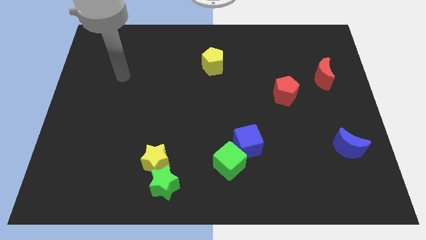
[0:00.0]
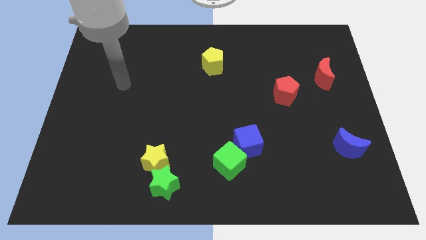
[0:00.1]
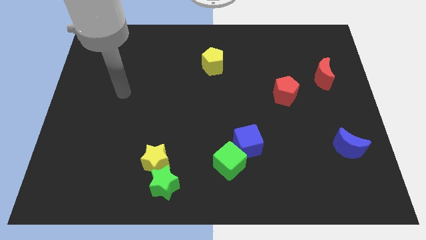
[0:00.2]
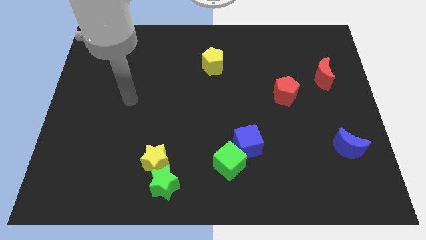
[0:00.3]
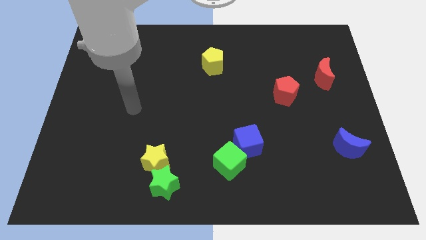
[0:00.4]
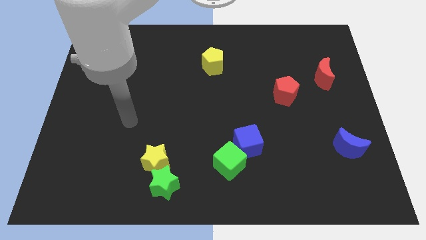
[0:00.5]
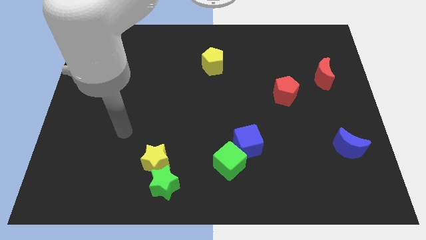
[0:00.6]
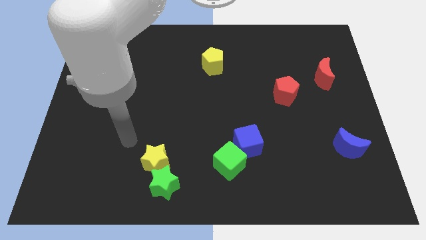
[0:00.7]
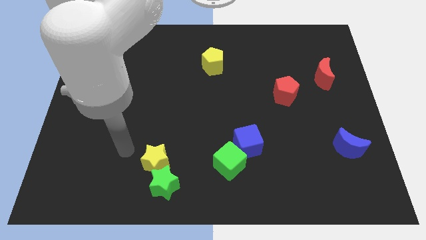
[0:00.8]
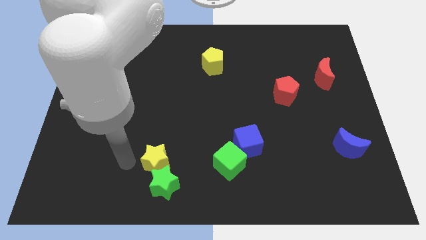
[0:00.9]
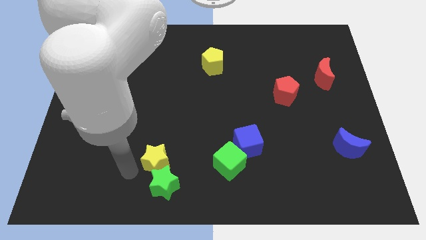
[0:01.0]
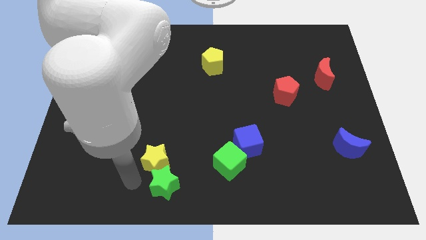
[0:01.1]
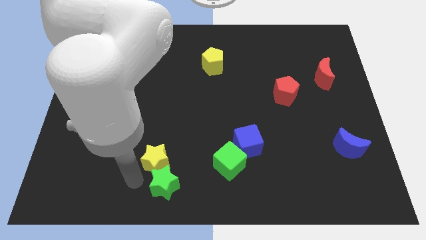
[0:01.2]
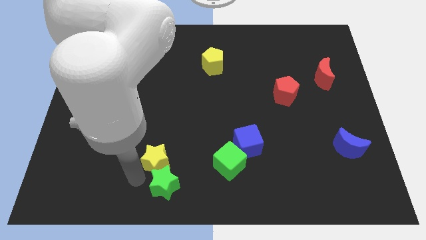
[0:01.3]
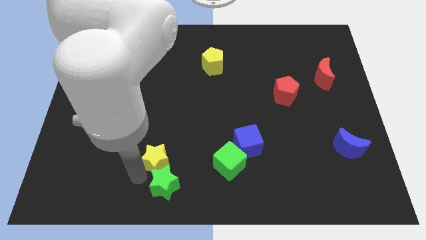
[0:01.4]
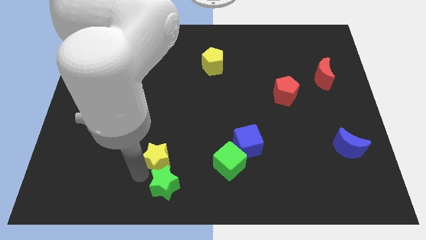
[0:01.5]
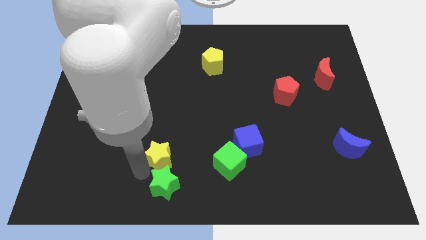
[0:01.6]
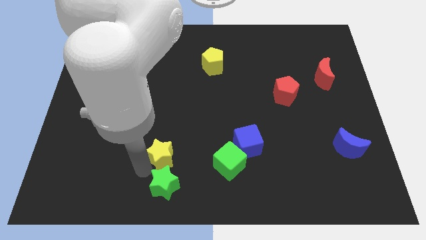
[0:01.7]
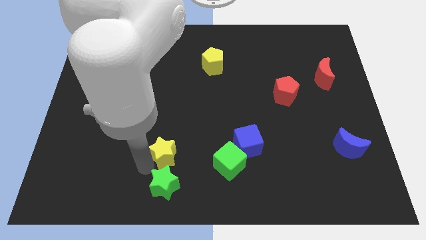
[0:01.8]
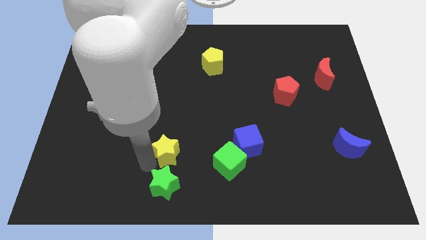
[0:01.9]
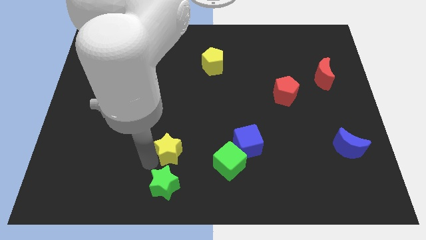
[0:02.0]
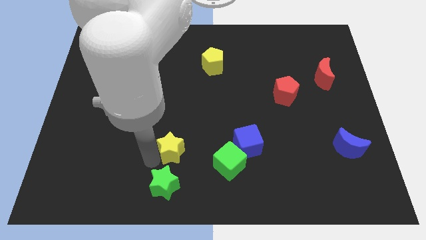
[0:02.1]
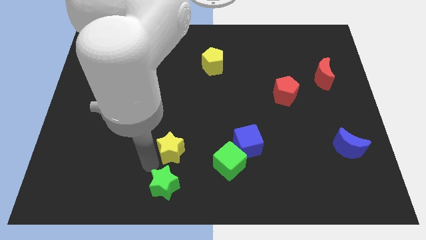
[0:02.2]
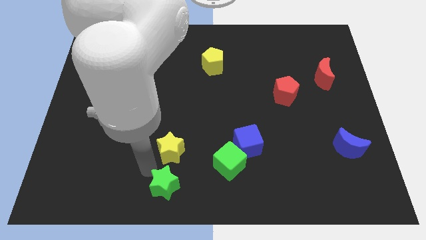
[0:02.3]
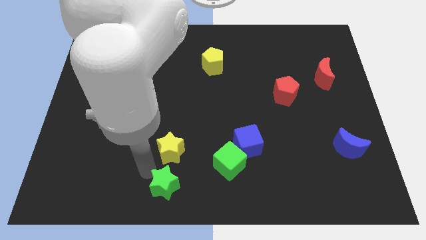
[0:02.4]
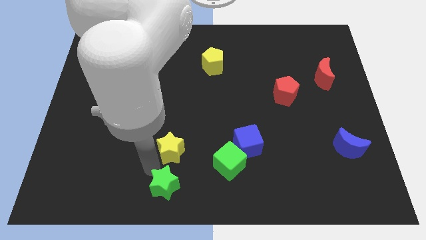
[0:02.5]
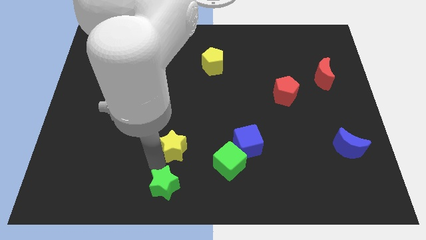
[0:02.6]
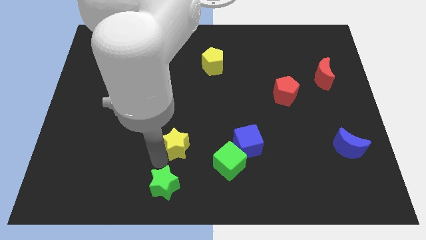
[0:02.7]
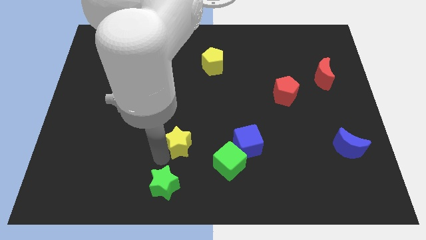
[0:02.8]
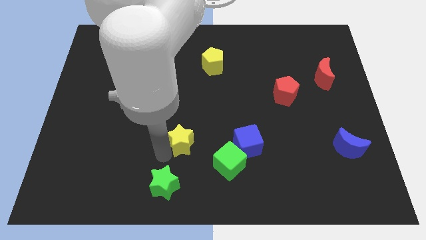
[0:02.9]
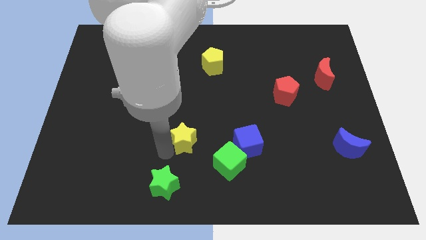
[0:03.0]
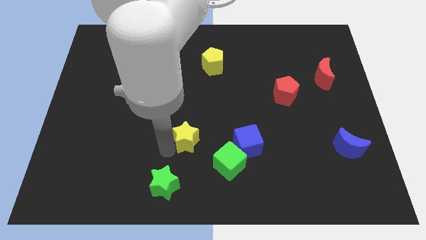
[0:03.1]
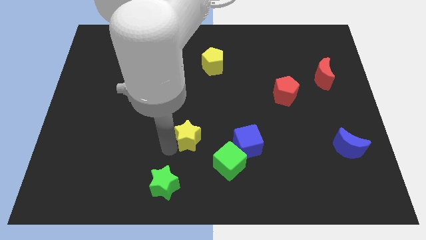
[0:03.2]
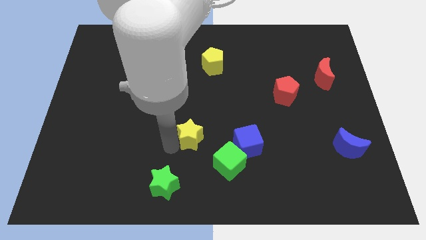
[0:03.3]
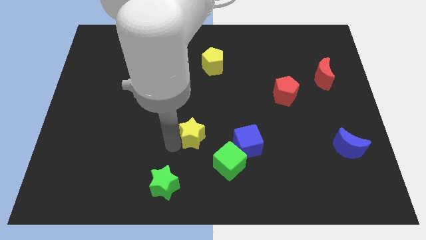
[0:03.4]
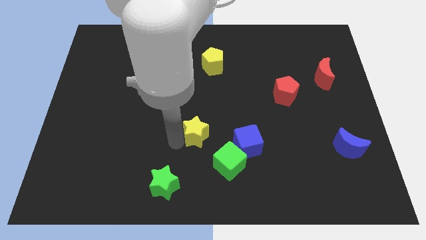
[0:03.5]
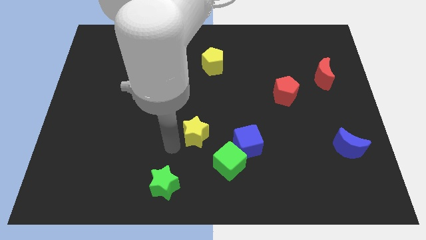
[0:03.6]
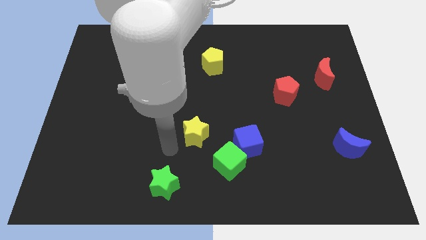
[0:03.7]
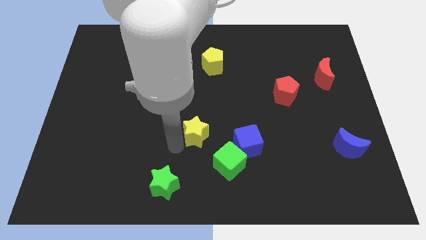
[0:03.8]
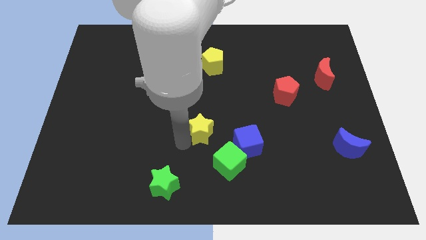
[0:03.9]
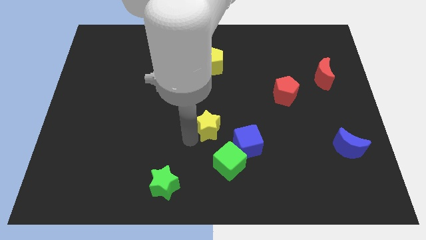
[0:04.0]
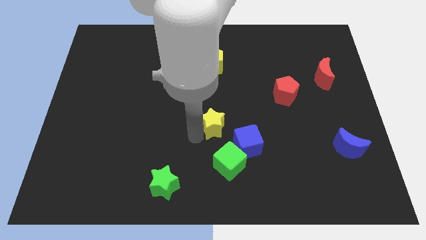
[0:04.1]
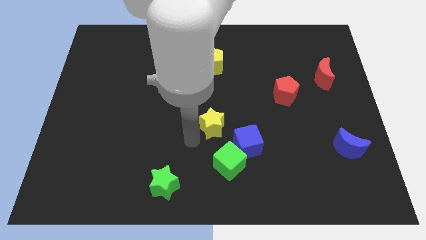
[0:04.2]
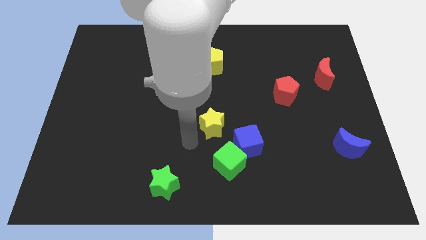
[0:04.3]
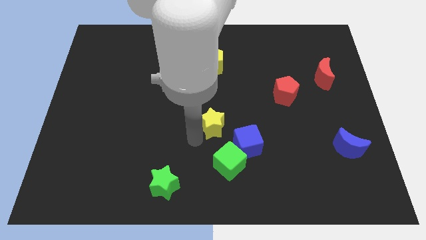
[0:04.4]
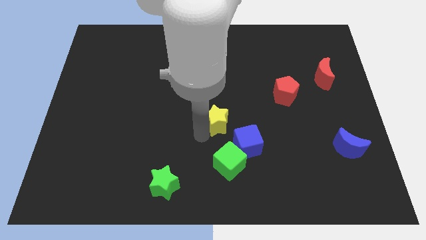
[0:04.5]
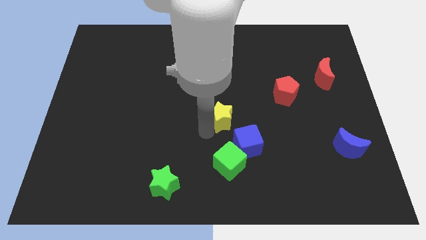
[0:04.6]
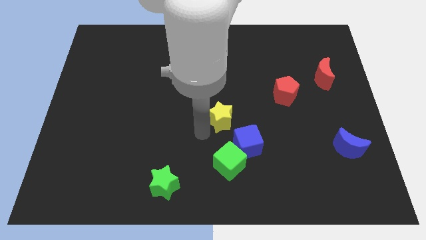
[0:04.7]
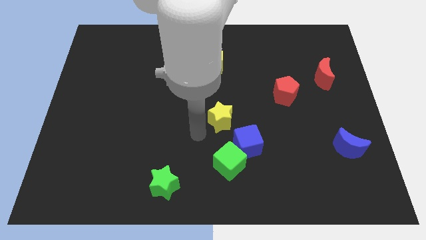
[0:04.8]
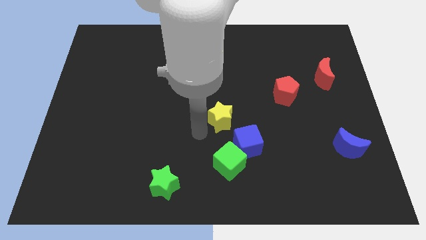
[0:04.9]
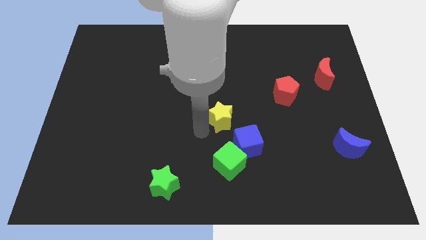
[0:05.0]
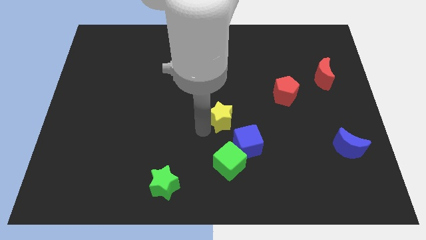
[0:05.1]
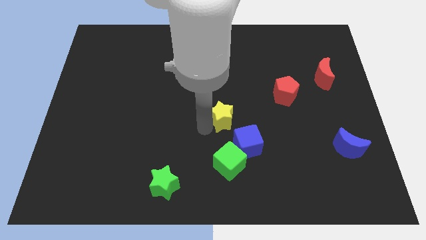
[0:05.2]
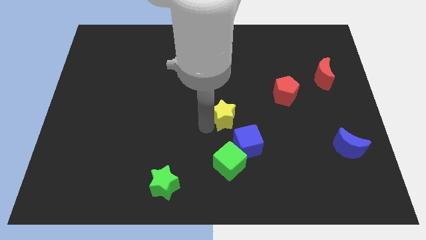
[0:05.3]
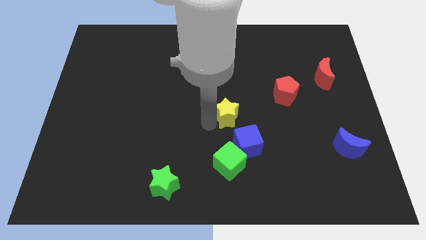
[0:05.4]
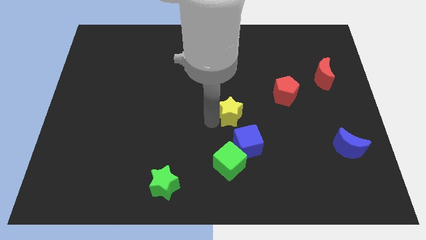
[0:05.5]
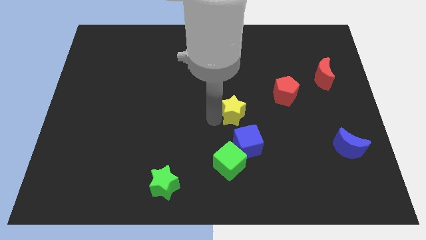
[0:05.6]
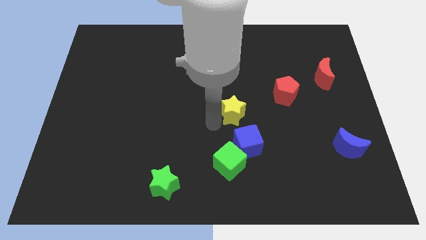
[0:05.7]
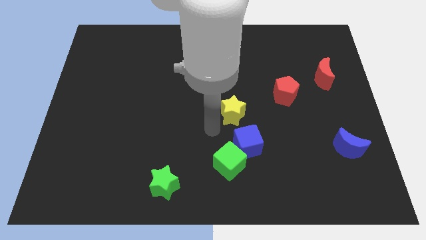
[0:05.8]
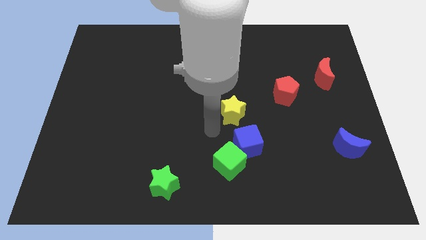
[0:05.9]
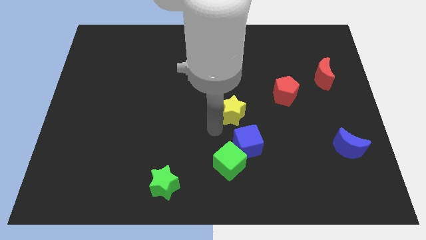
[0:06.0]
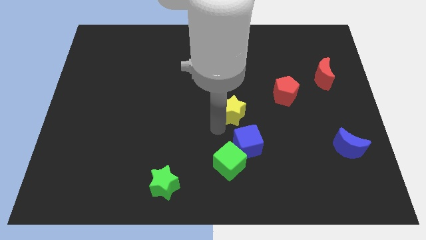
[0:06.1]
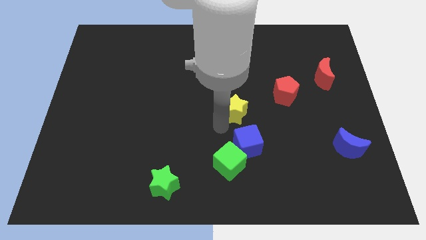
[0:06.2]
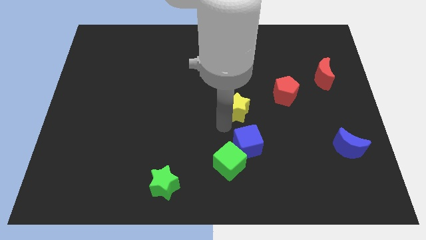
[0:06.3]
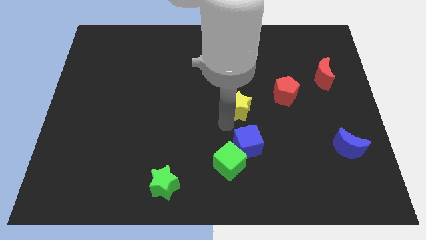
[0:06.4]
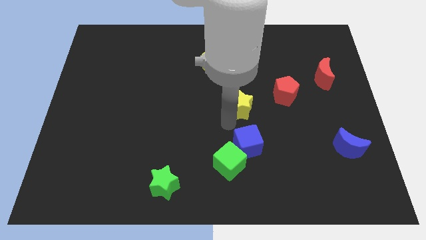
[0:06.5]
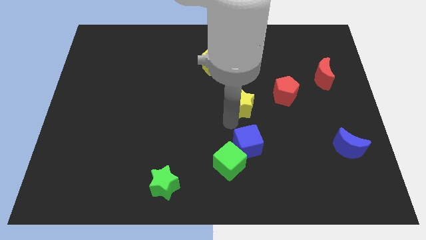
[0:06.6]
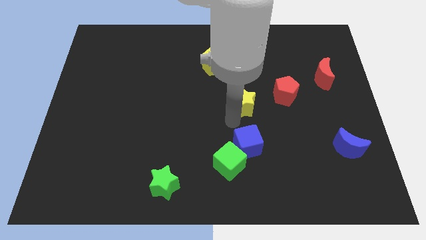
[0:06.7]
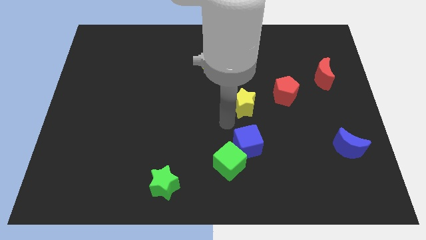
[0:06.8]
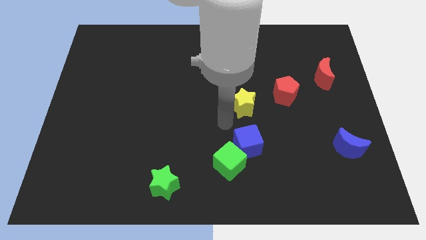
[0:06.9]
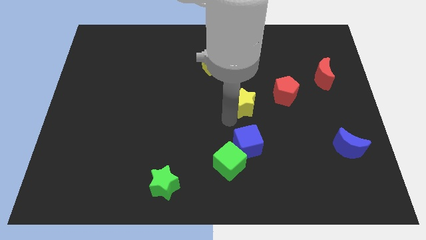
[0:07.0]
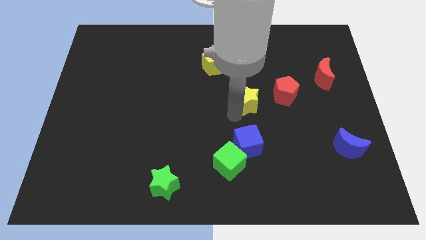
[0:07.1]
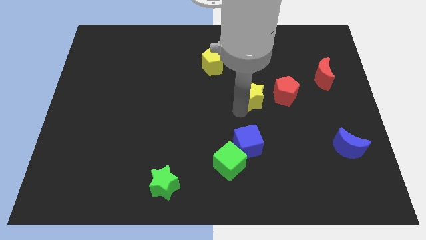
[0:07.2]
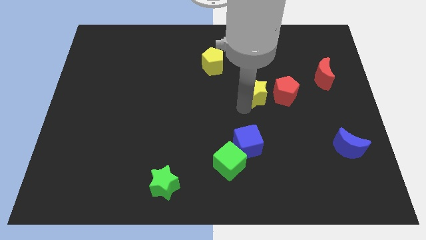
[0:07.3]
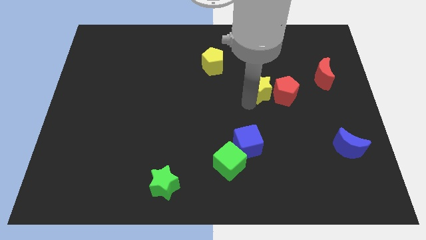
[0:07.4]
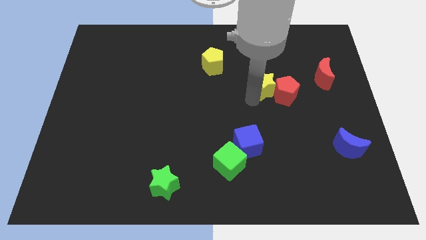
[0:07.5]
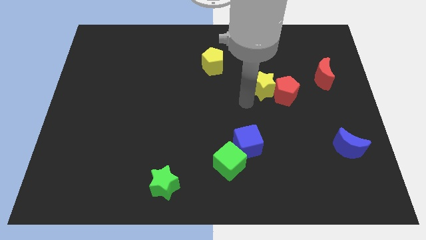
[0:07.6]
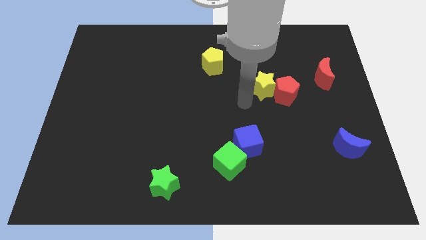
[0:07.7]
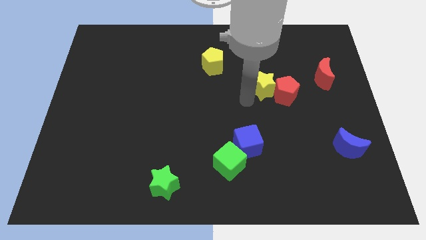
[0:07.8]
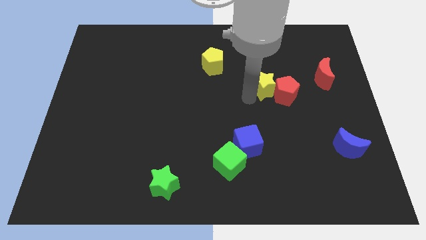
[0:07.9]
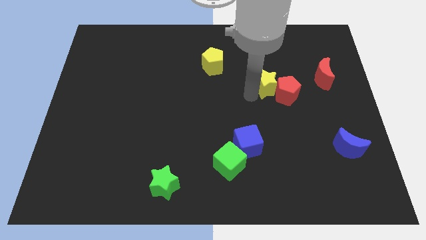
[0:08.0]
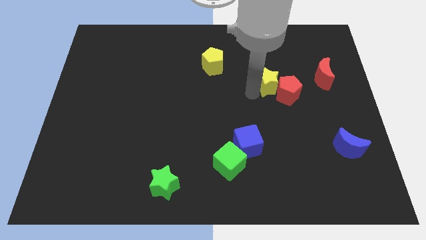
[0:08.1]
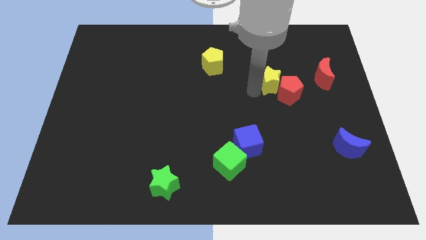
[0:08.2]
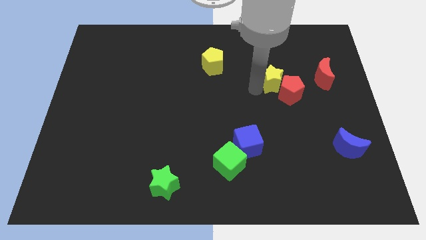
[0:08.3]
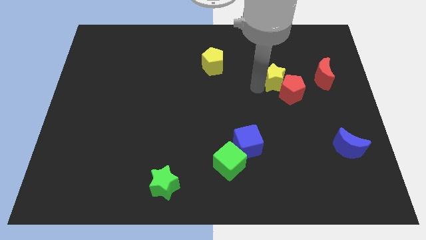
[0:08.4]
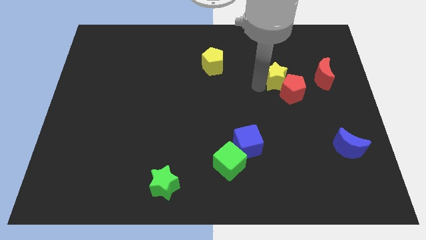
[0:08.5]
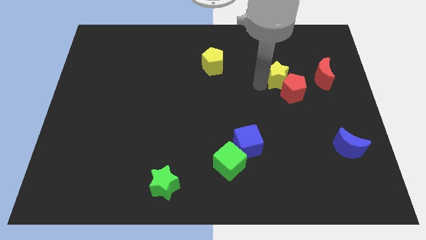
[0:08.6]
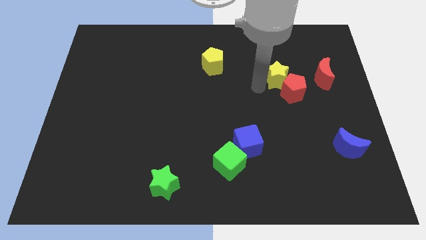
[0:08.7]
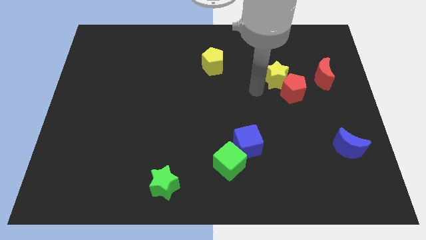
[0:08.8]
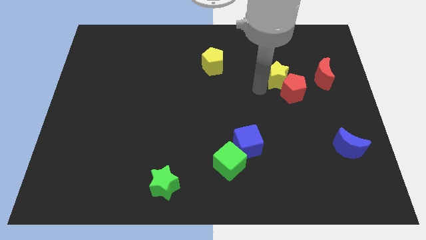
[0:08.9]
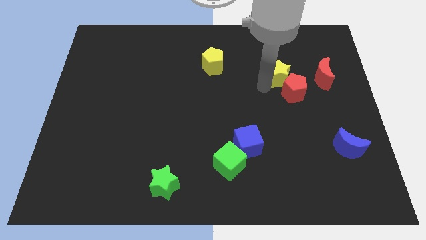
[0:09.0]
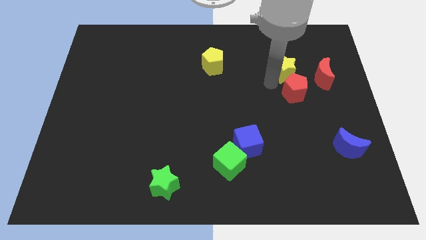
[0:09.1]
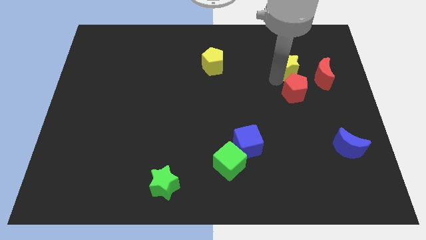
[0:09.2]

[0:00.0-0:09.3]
put the yellow star to the top left of the red moon
